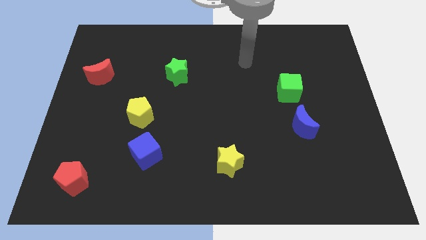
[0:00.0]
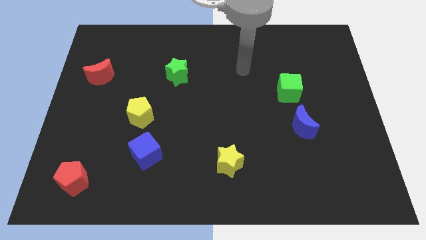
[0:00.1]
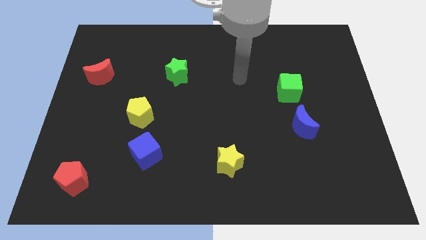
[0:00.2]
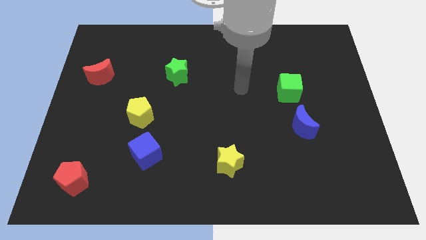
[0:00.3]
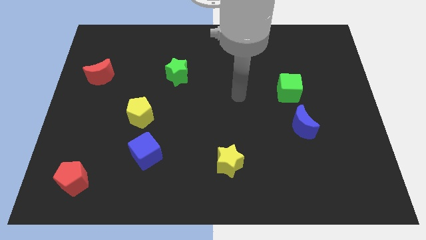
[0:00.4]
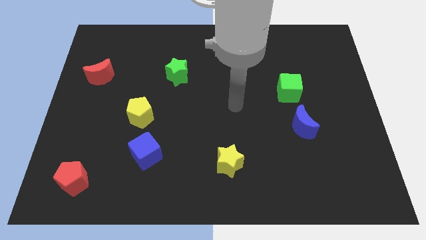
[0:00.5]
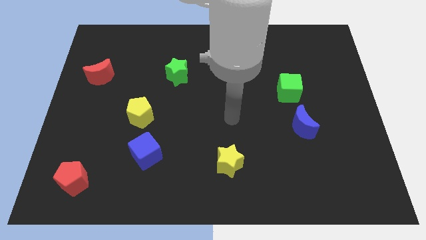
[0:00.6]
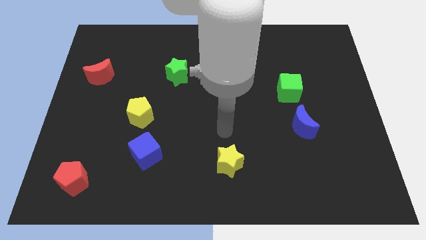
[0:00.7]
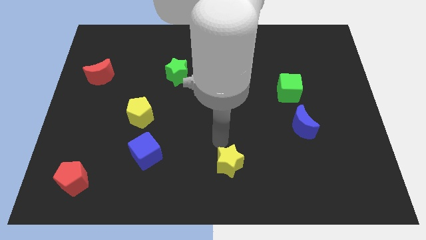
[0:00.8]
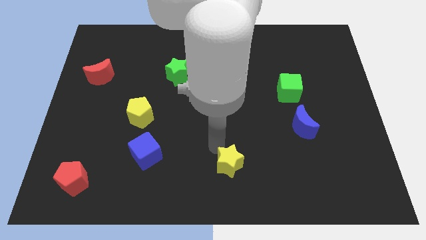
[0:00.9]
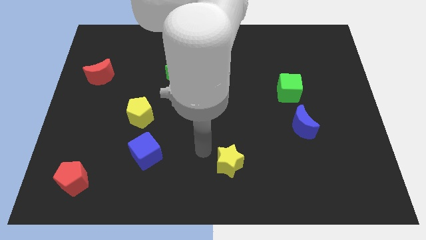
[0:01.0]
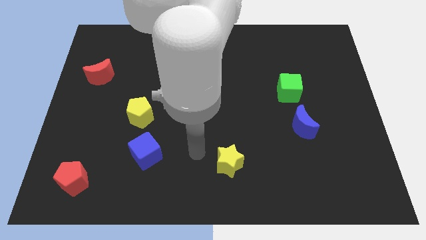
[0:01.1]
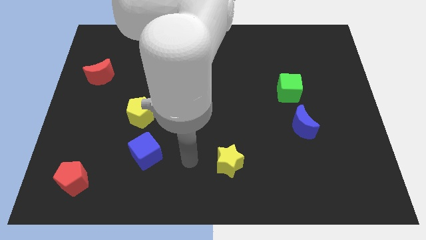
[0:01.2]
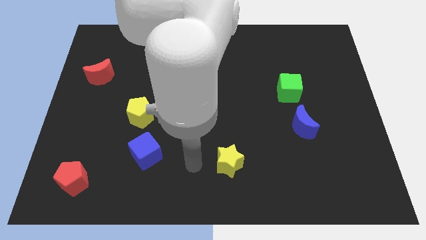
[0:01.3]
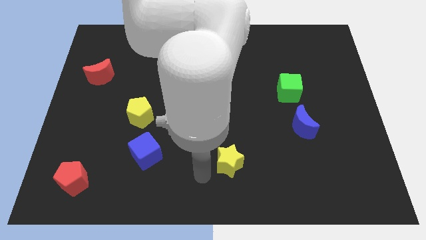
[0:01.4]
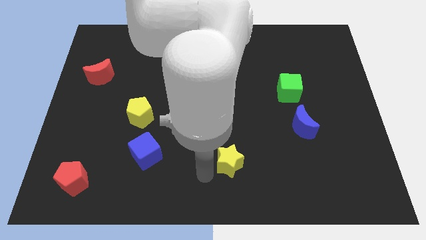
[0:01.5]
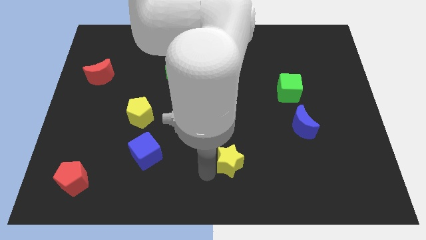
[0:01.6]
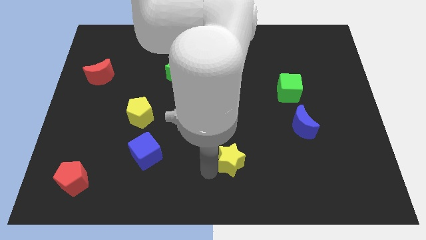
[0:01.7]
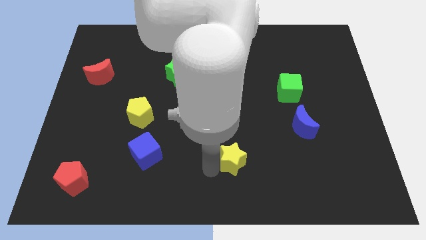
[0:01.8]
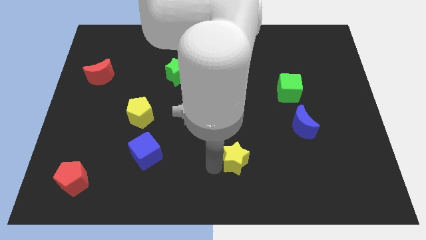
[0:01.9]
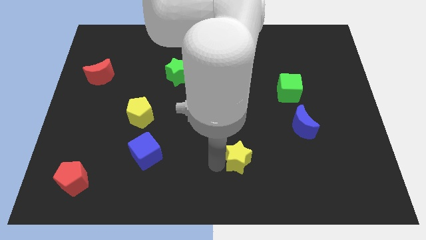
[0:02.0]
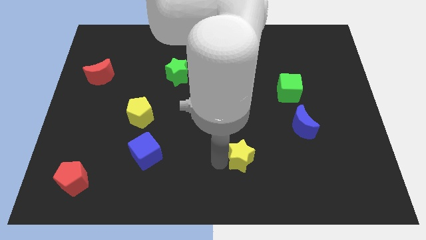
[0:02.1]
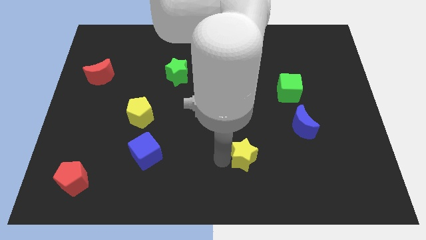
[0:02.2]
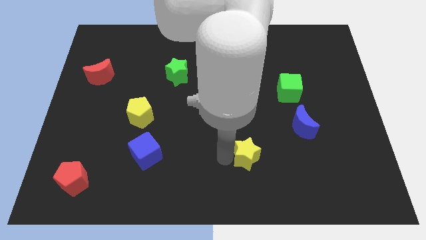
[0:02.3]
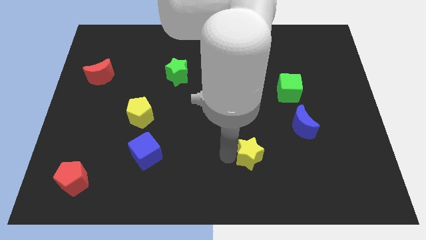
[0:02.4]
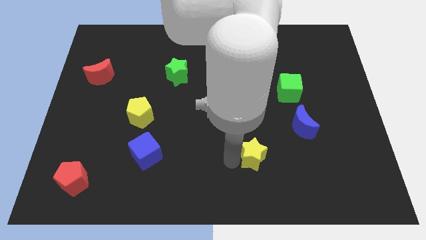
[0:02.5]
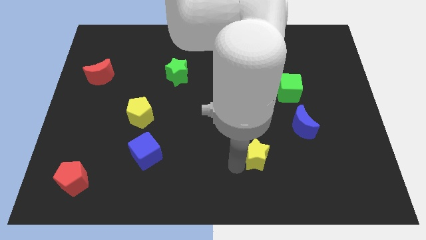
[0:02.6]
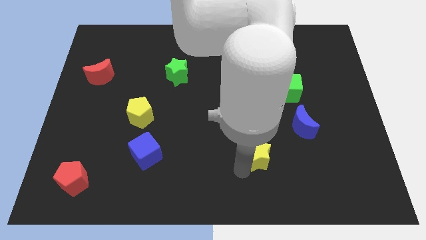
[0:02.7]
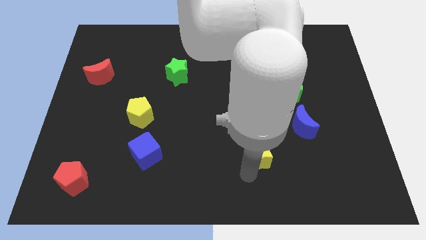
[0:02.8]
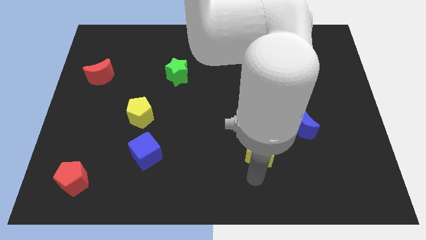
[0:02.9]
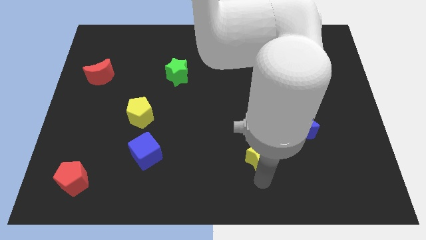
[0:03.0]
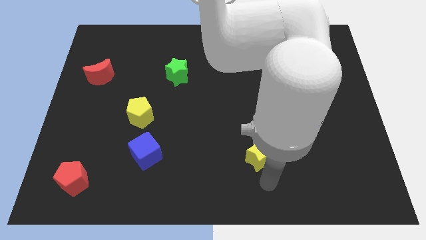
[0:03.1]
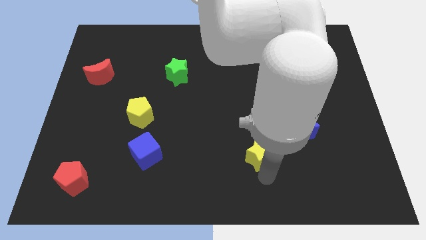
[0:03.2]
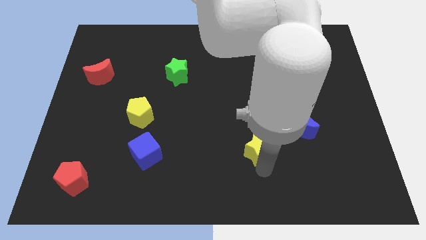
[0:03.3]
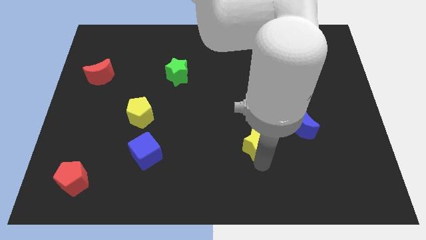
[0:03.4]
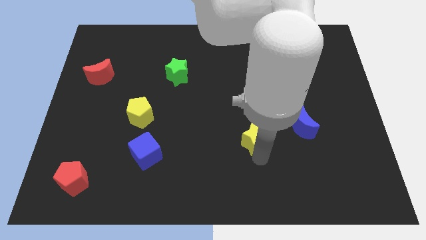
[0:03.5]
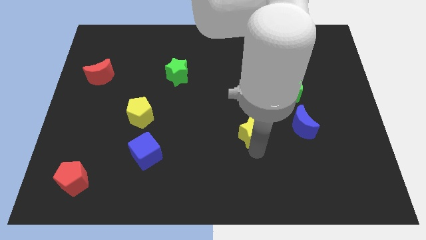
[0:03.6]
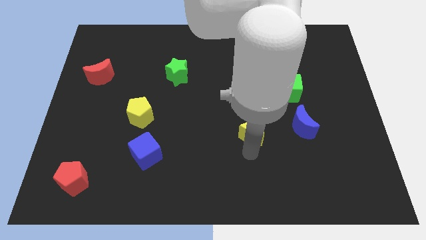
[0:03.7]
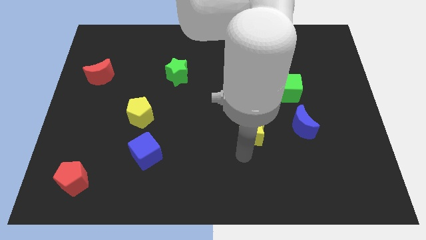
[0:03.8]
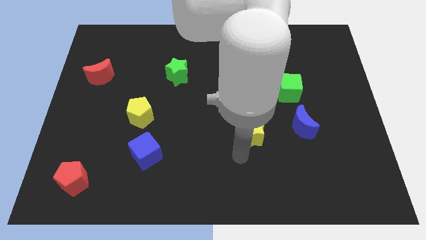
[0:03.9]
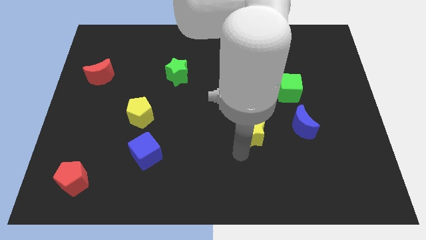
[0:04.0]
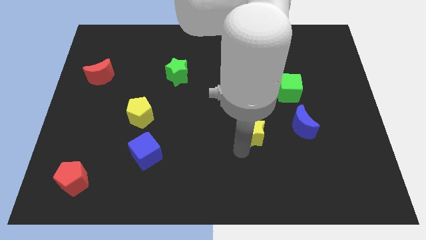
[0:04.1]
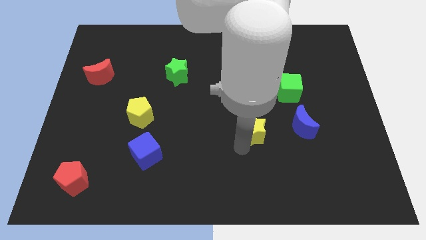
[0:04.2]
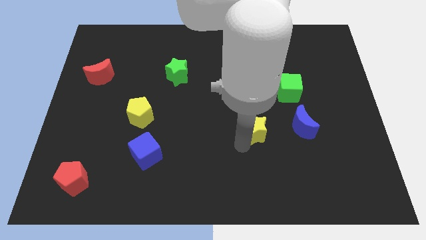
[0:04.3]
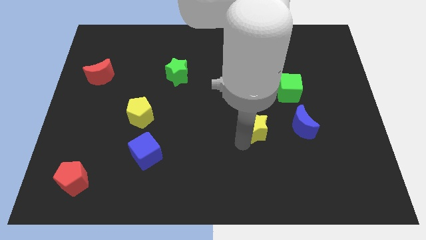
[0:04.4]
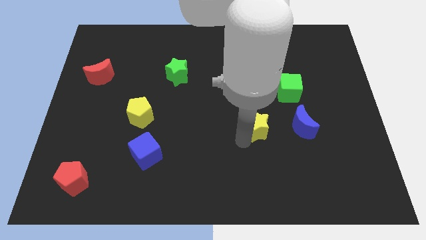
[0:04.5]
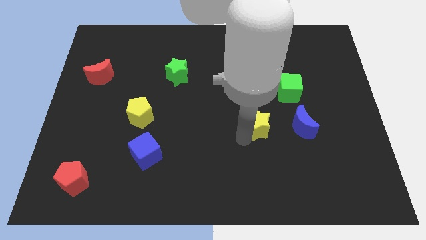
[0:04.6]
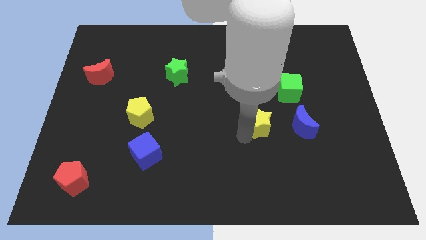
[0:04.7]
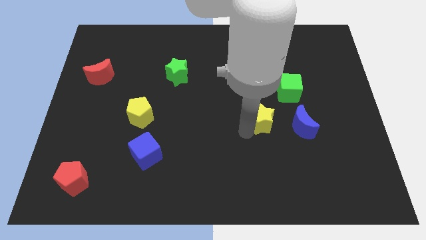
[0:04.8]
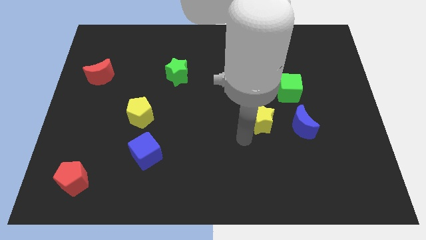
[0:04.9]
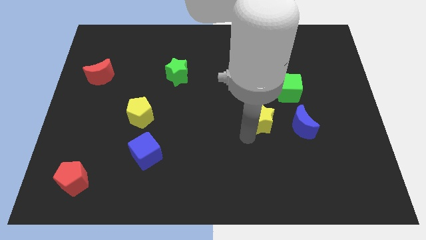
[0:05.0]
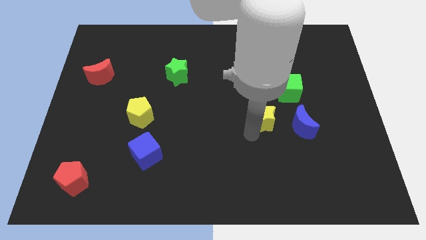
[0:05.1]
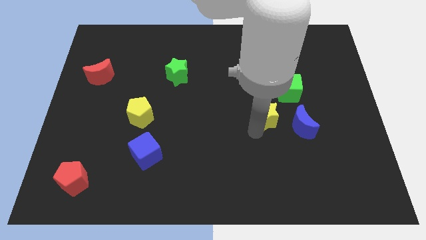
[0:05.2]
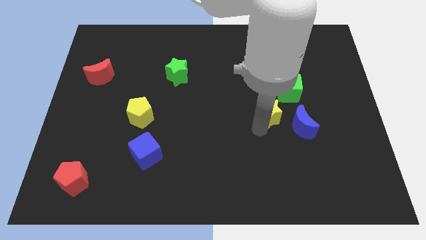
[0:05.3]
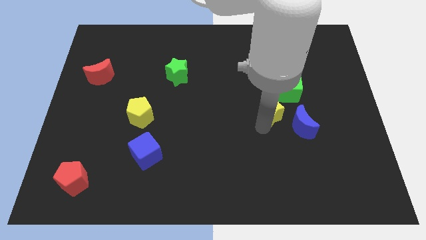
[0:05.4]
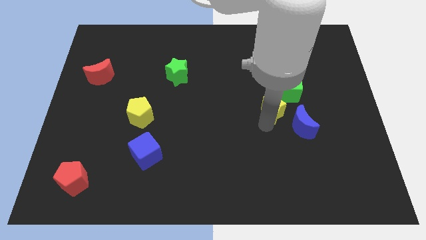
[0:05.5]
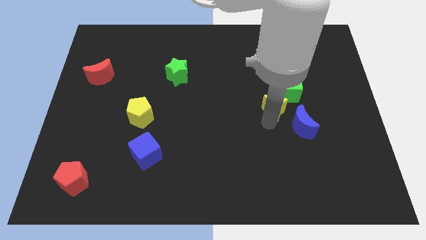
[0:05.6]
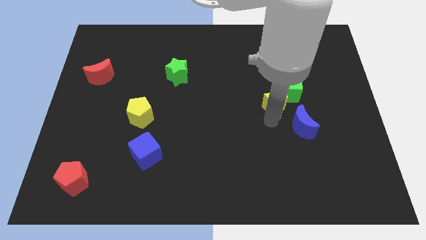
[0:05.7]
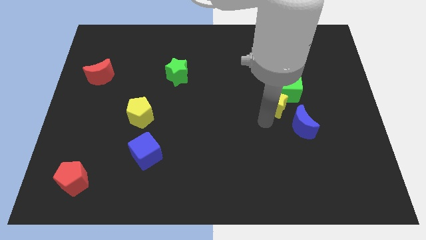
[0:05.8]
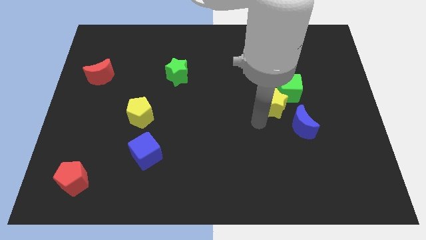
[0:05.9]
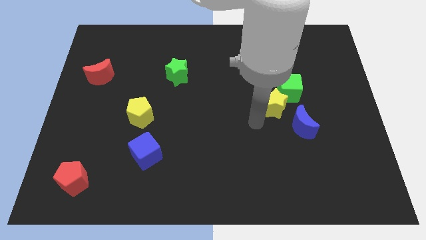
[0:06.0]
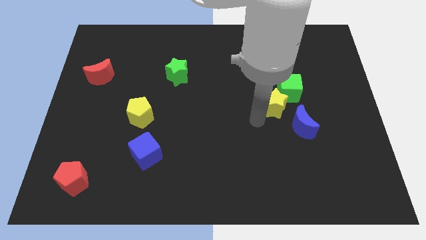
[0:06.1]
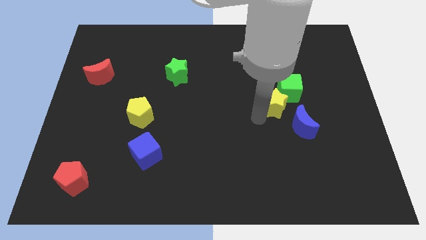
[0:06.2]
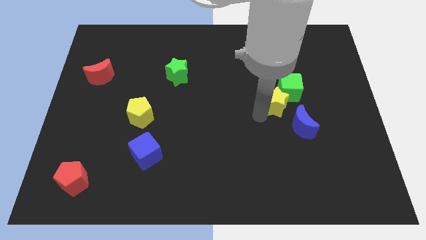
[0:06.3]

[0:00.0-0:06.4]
put the yellow star next to the green cube

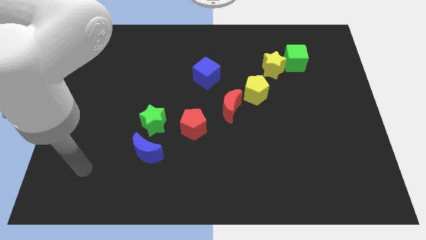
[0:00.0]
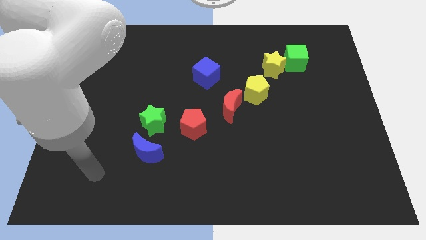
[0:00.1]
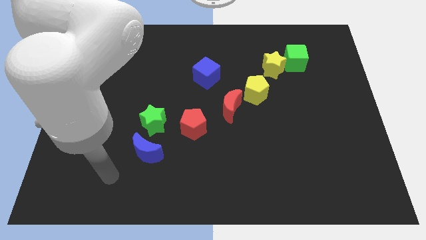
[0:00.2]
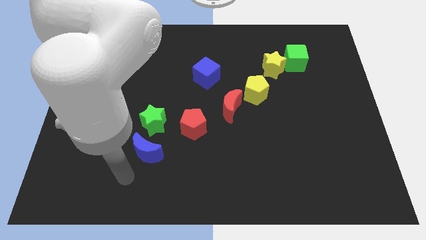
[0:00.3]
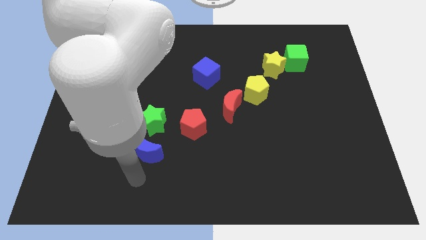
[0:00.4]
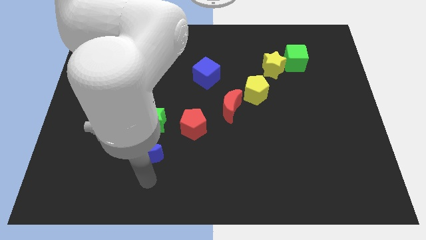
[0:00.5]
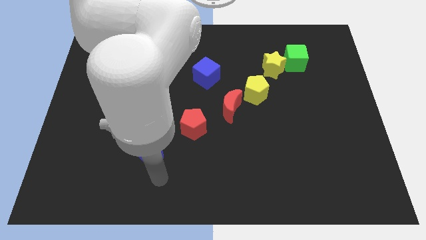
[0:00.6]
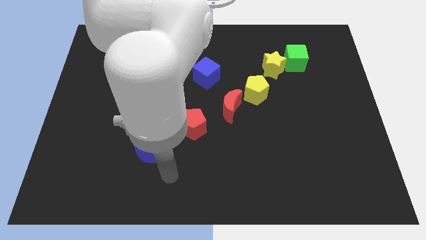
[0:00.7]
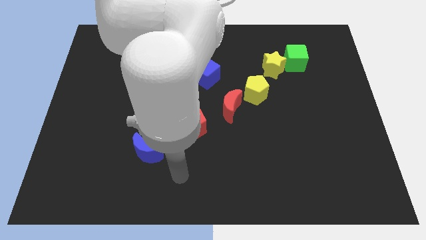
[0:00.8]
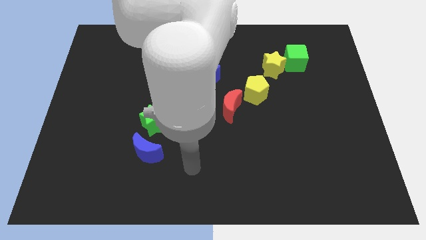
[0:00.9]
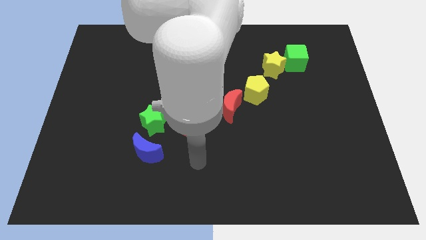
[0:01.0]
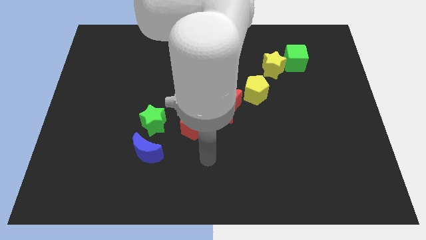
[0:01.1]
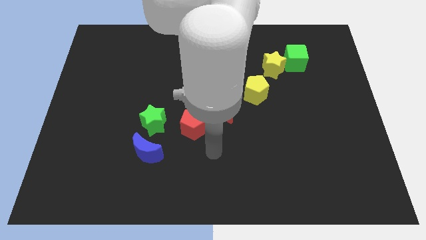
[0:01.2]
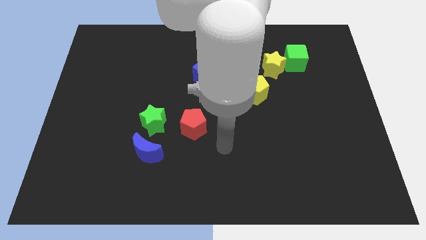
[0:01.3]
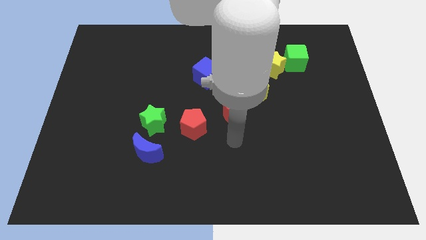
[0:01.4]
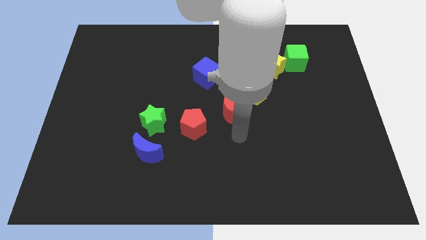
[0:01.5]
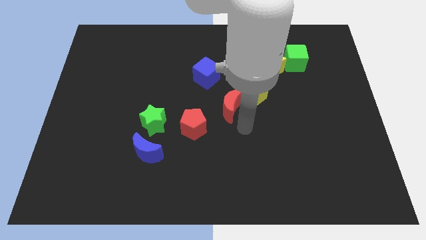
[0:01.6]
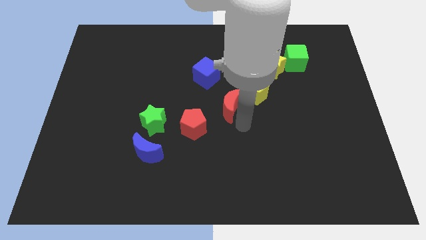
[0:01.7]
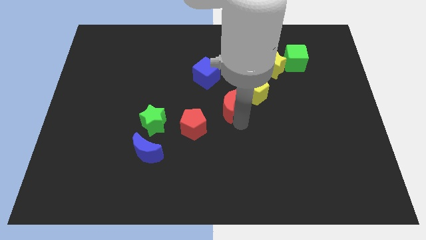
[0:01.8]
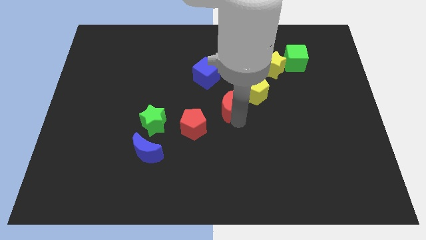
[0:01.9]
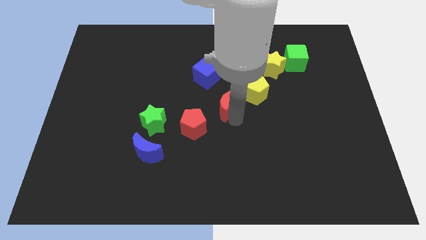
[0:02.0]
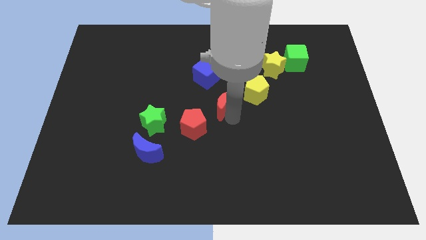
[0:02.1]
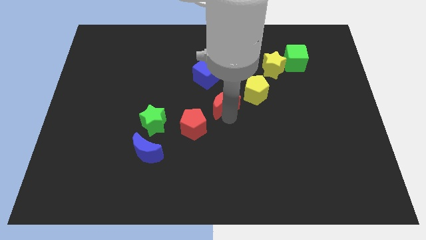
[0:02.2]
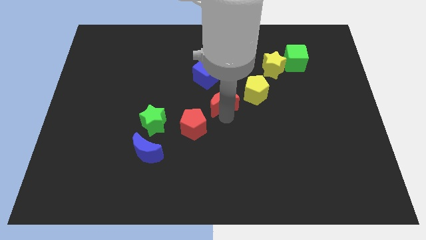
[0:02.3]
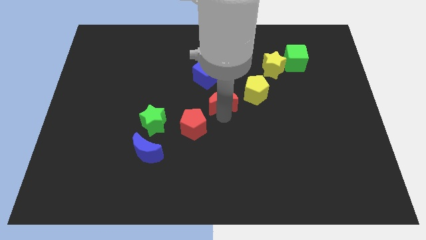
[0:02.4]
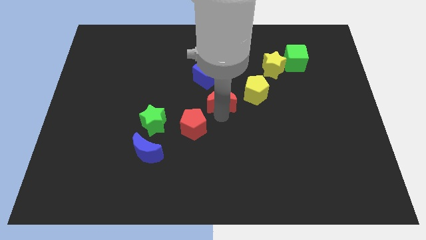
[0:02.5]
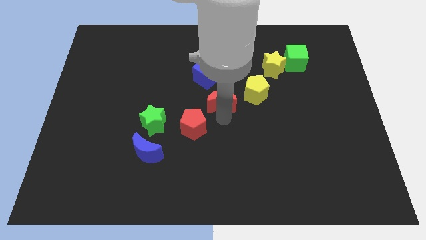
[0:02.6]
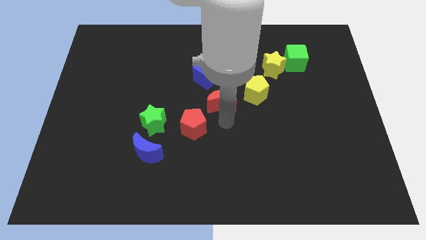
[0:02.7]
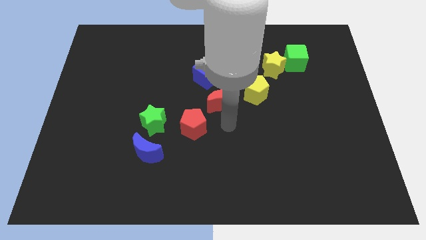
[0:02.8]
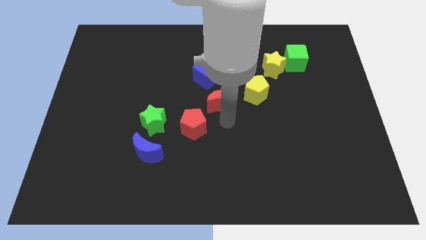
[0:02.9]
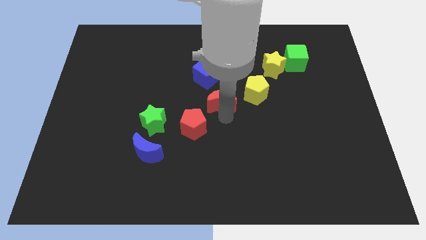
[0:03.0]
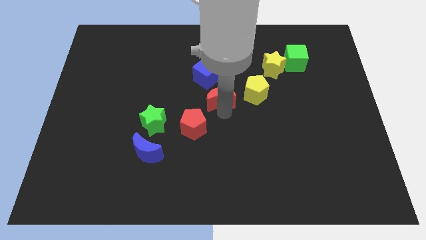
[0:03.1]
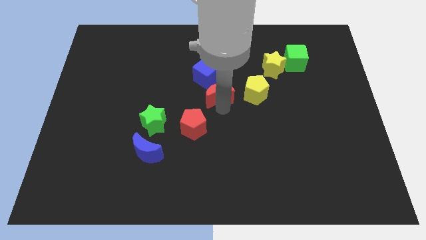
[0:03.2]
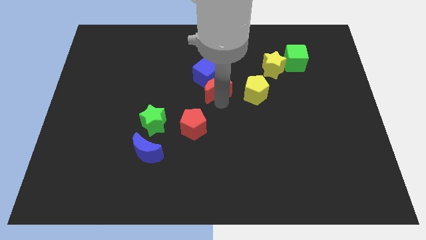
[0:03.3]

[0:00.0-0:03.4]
slide the red moon next to the blue cube
